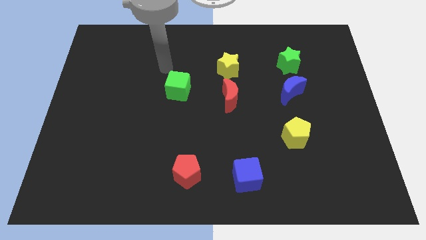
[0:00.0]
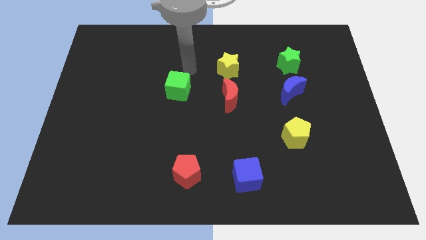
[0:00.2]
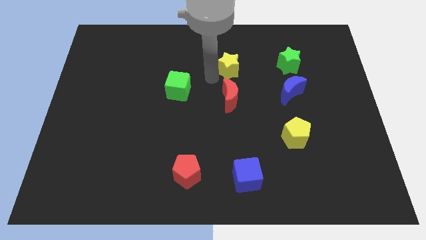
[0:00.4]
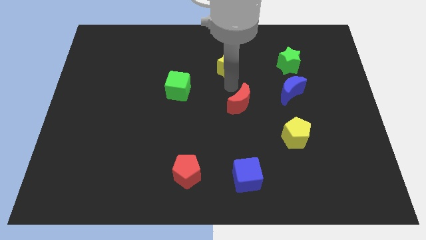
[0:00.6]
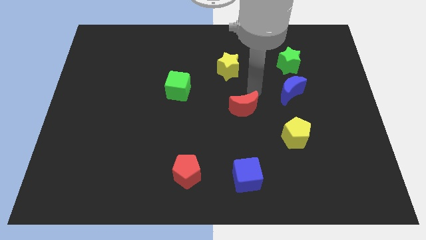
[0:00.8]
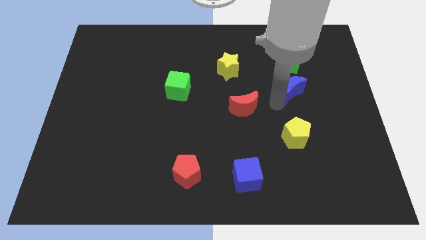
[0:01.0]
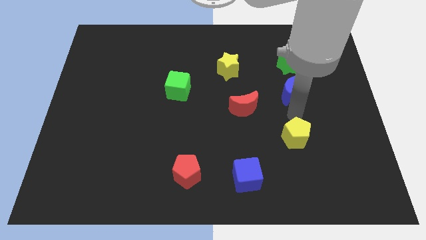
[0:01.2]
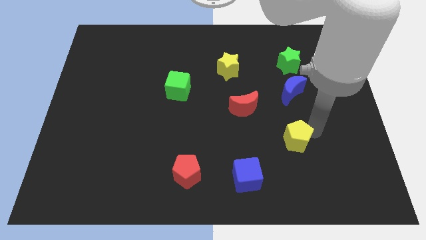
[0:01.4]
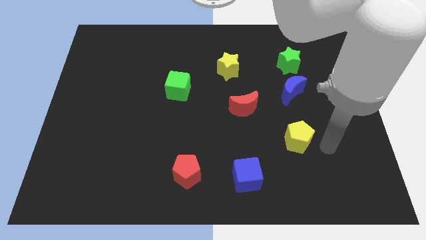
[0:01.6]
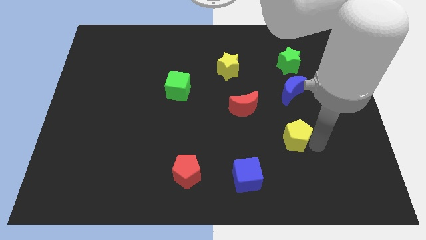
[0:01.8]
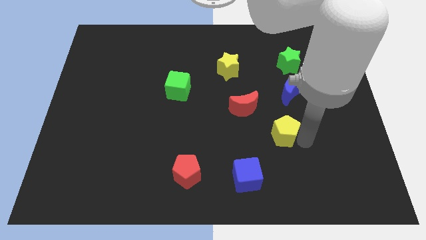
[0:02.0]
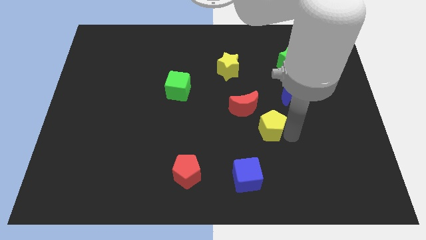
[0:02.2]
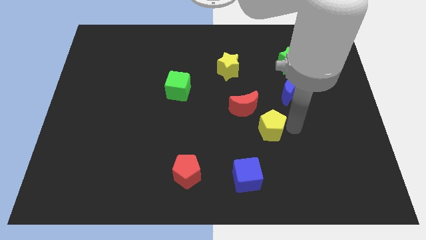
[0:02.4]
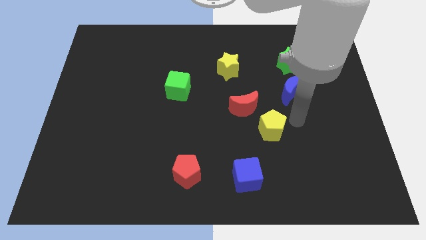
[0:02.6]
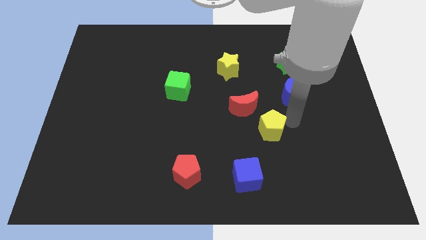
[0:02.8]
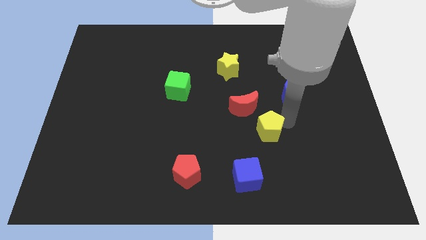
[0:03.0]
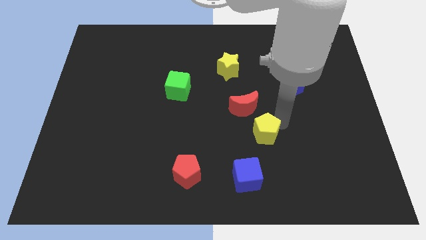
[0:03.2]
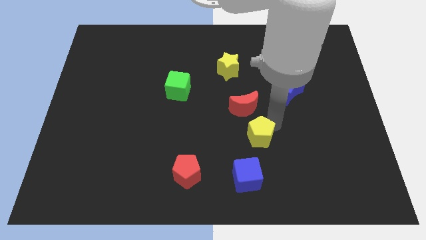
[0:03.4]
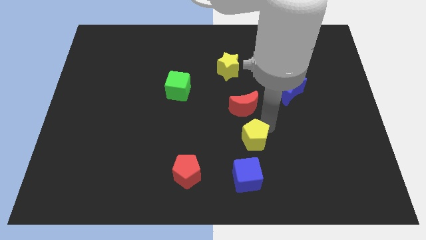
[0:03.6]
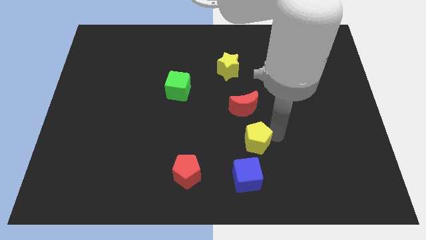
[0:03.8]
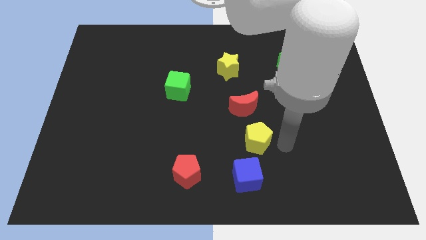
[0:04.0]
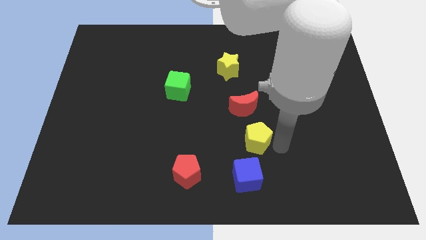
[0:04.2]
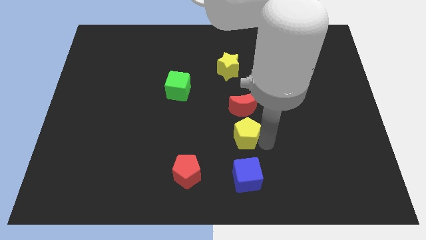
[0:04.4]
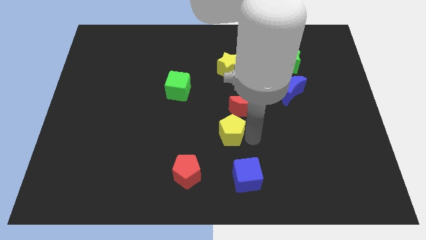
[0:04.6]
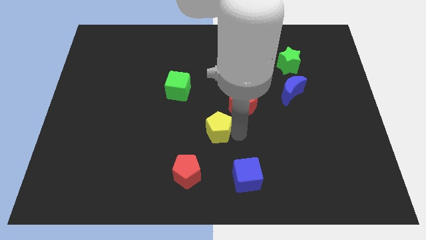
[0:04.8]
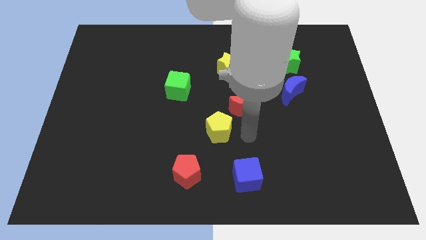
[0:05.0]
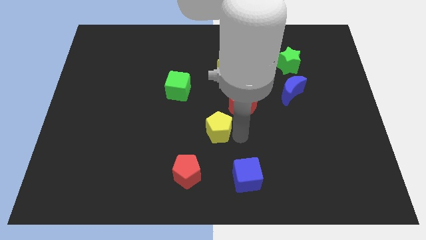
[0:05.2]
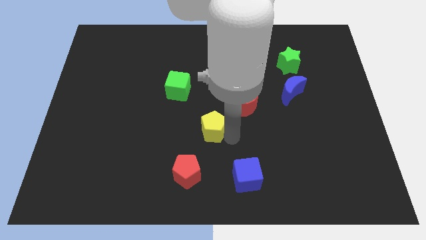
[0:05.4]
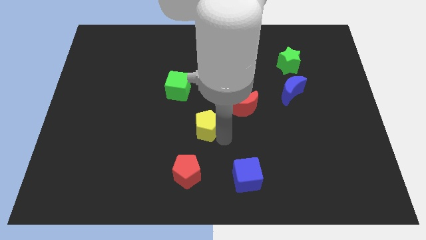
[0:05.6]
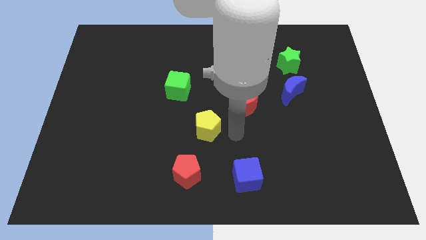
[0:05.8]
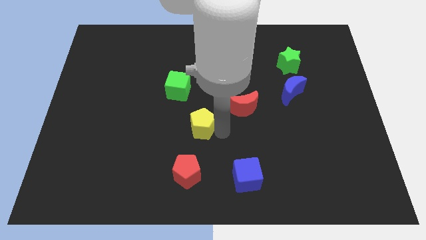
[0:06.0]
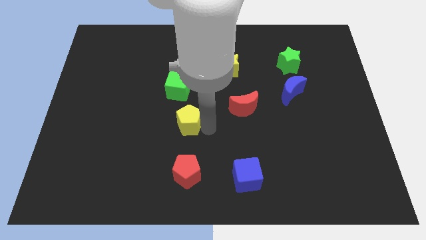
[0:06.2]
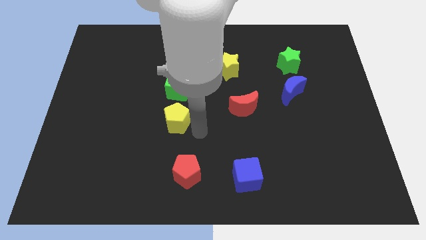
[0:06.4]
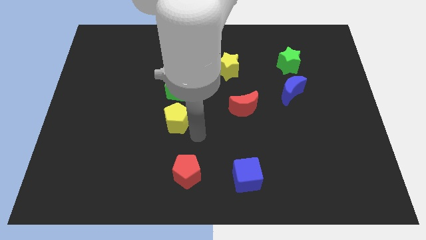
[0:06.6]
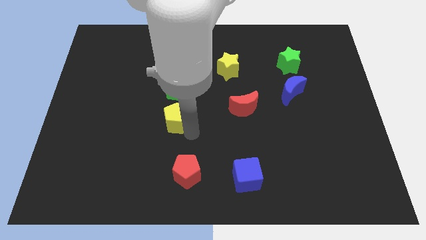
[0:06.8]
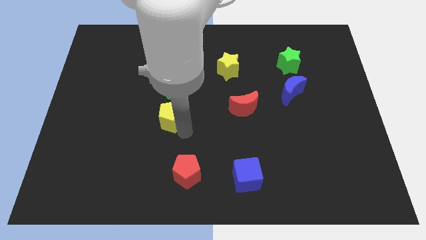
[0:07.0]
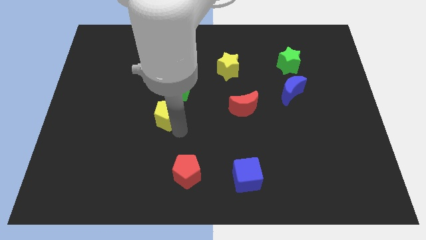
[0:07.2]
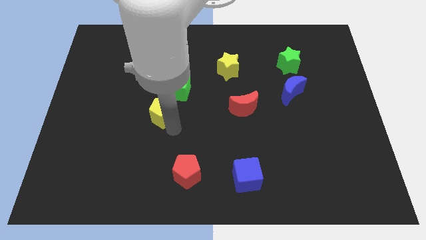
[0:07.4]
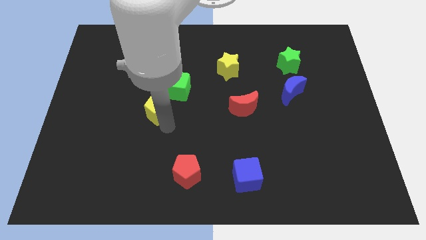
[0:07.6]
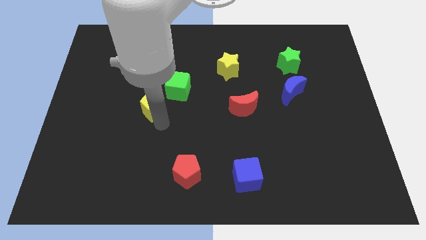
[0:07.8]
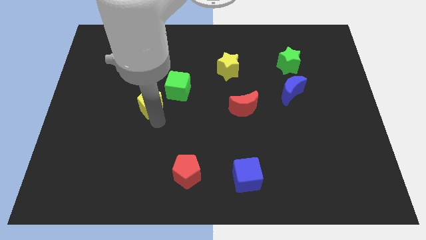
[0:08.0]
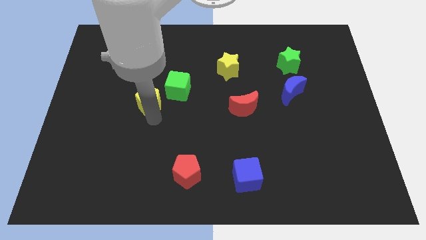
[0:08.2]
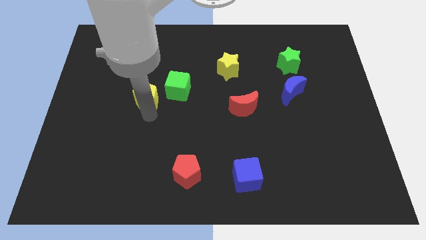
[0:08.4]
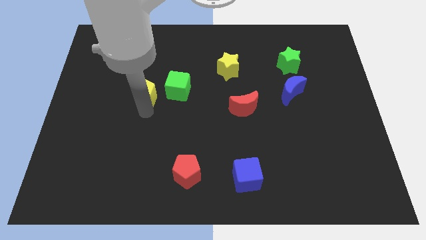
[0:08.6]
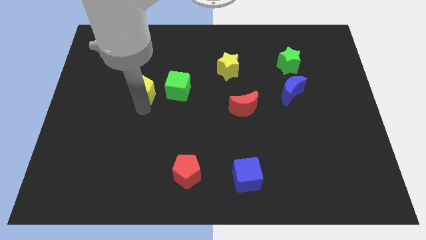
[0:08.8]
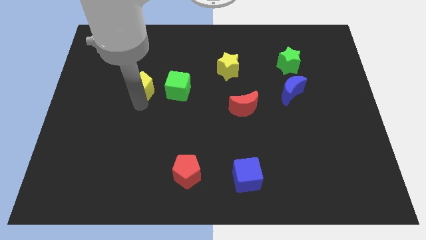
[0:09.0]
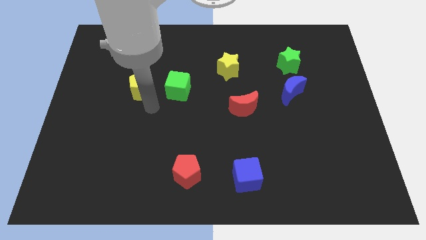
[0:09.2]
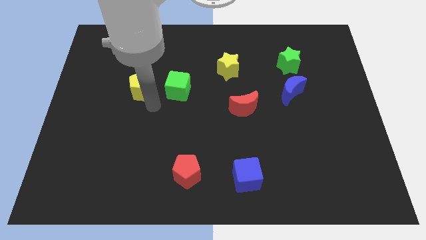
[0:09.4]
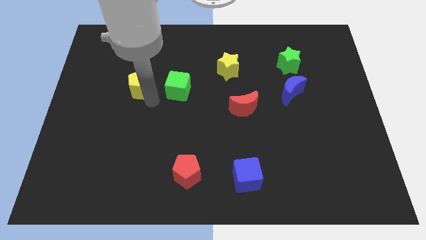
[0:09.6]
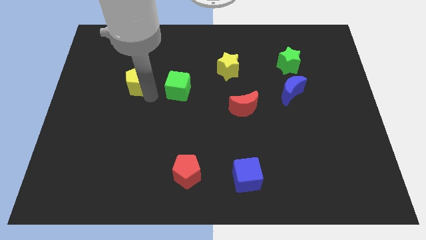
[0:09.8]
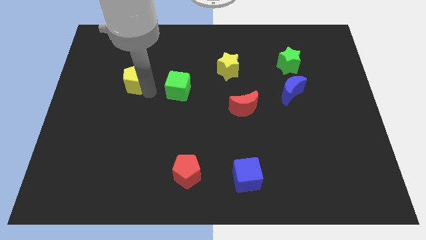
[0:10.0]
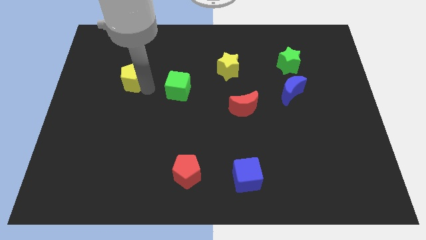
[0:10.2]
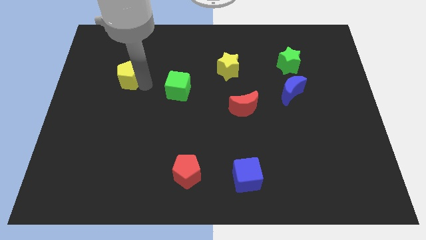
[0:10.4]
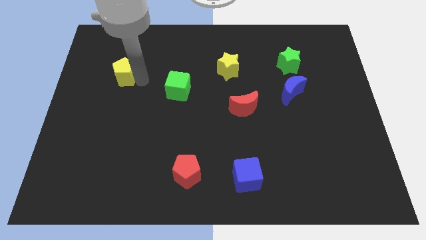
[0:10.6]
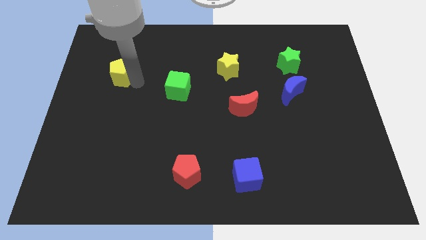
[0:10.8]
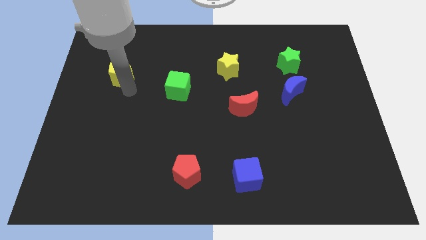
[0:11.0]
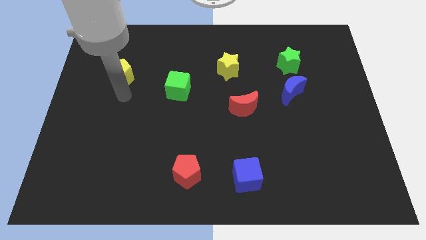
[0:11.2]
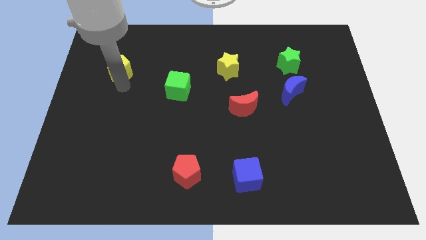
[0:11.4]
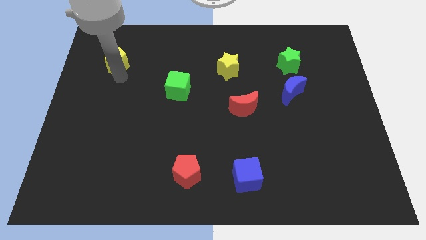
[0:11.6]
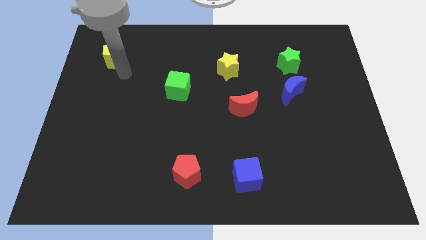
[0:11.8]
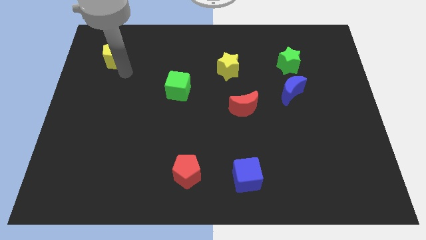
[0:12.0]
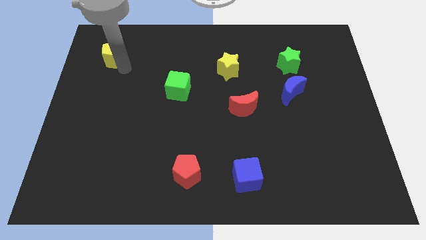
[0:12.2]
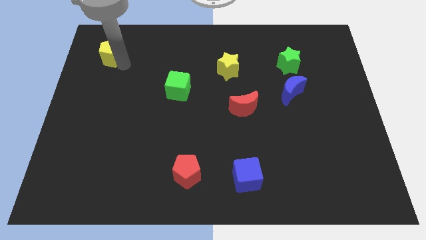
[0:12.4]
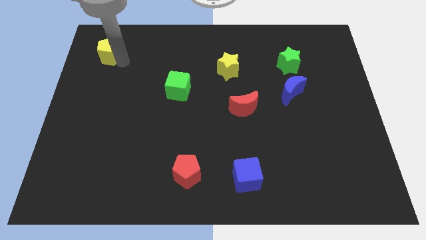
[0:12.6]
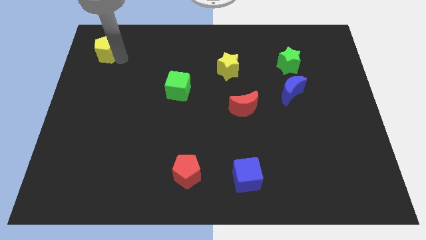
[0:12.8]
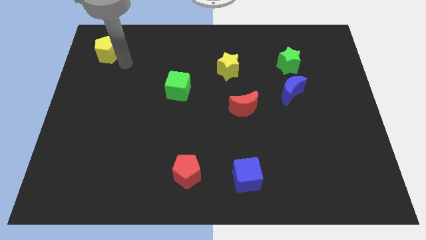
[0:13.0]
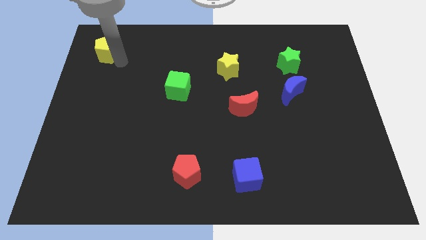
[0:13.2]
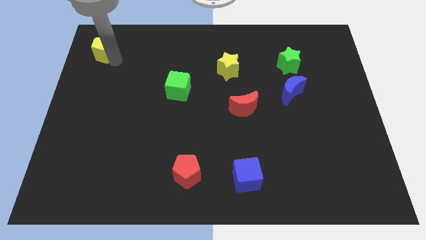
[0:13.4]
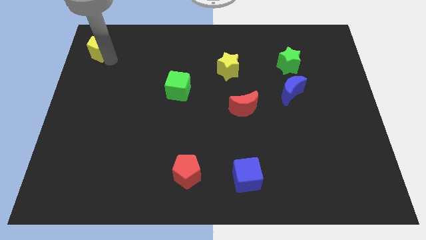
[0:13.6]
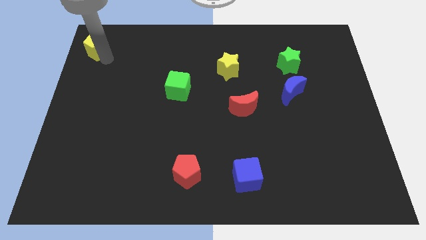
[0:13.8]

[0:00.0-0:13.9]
move the yellow pentagon to the top left of the board
